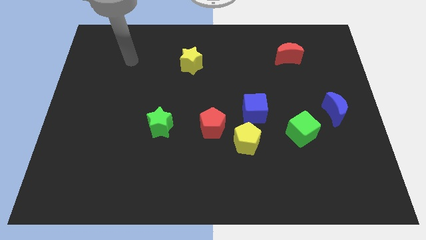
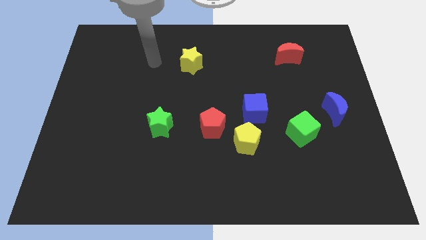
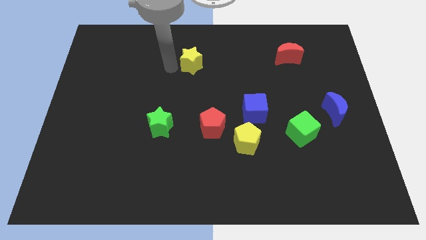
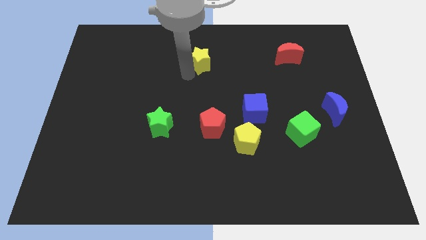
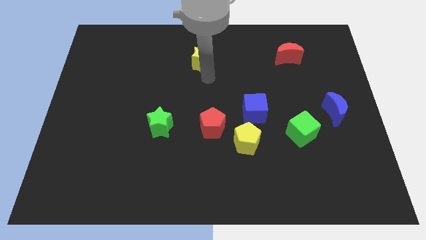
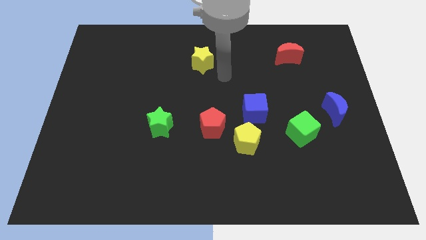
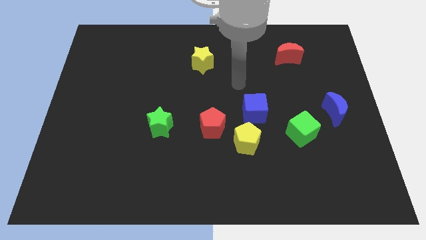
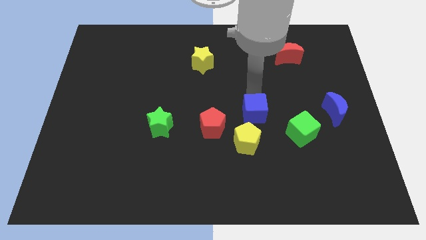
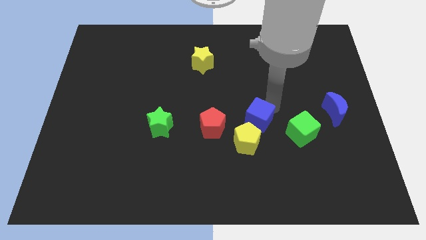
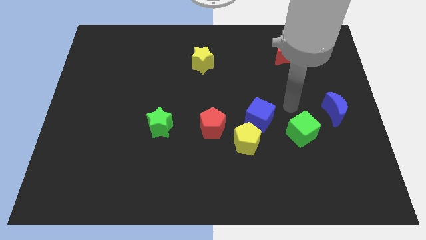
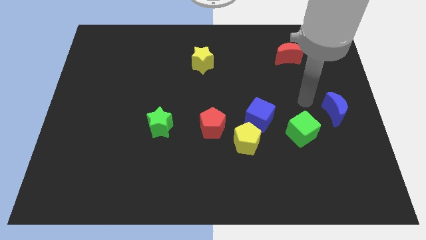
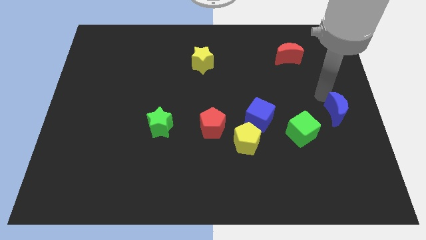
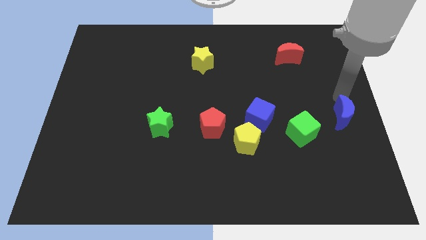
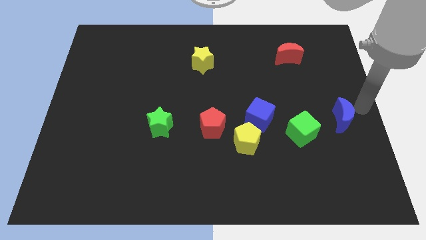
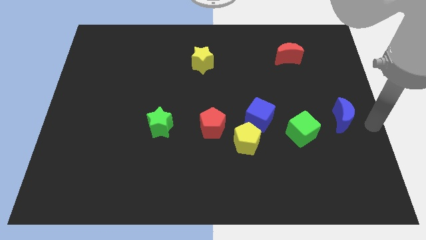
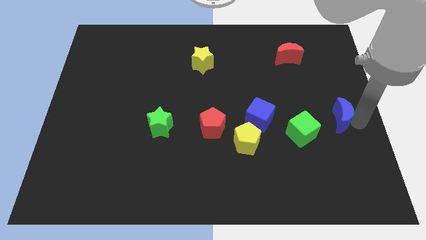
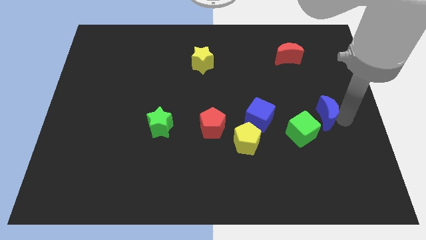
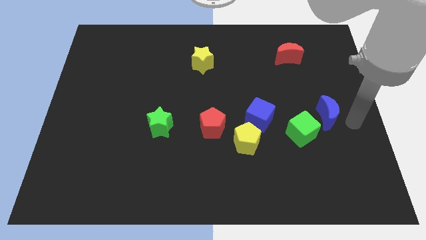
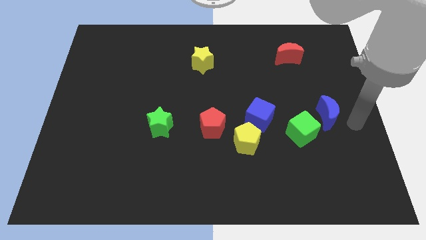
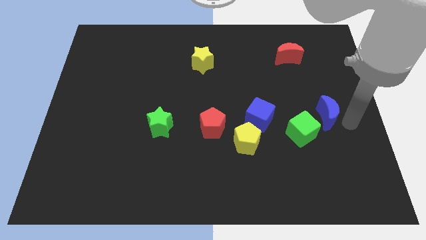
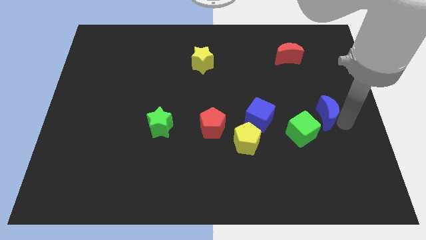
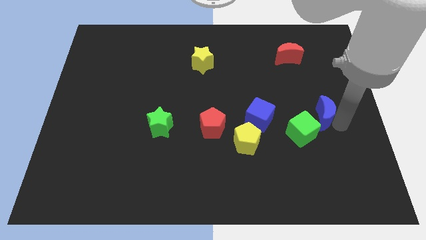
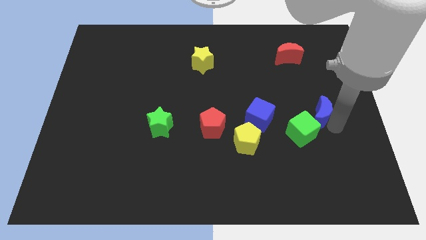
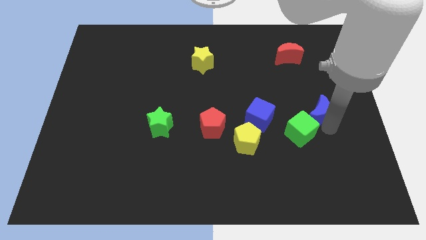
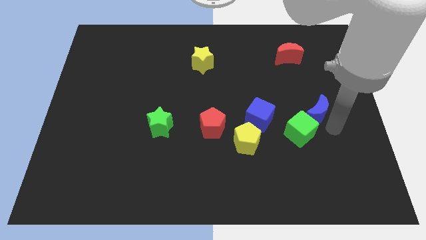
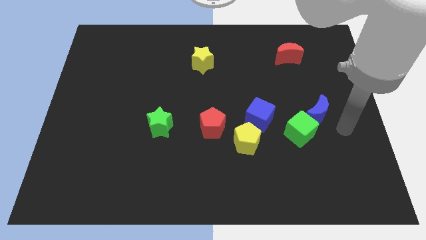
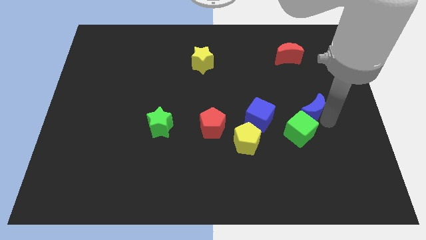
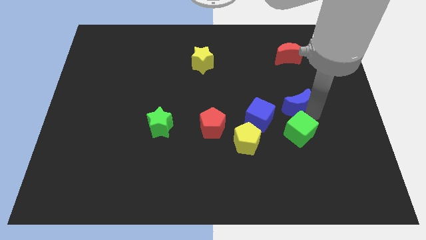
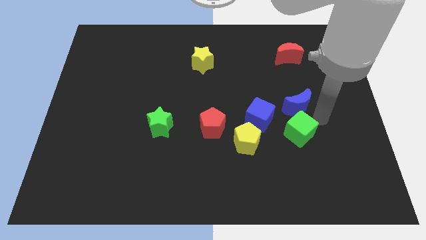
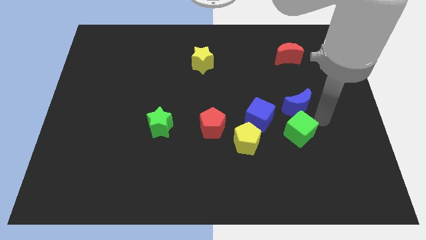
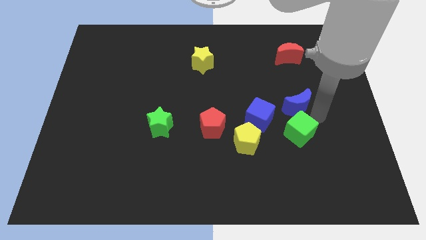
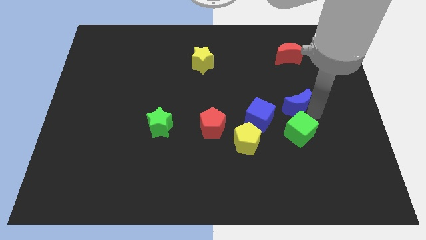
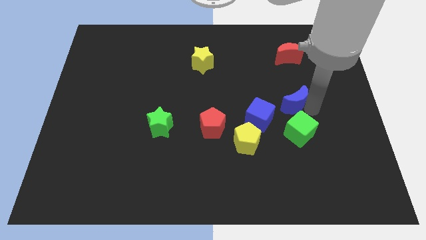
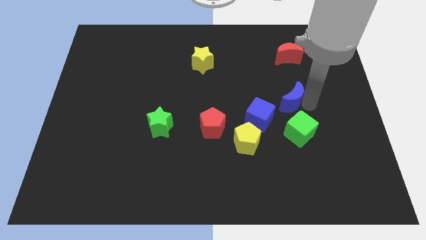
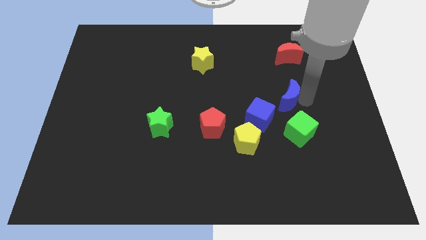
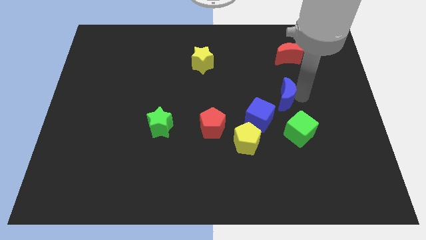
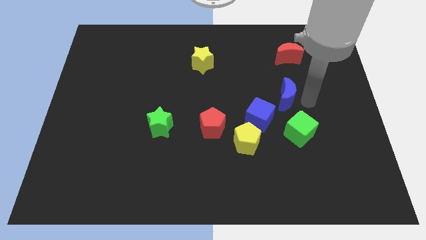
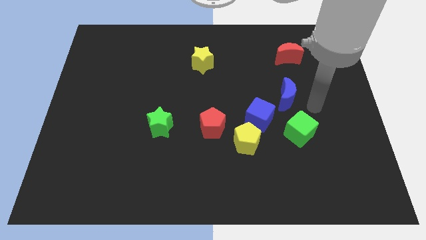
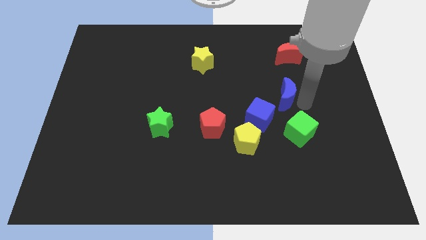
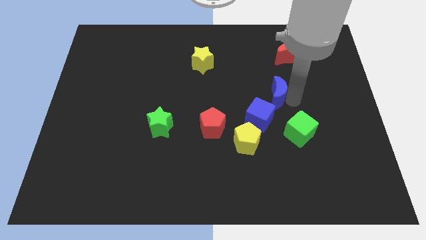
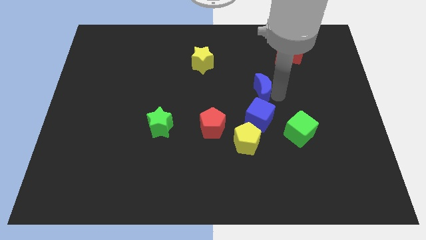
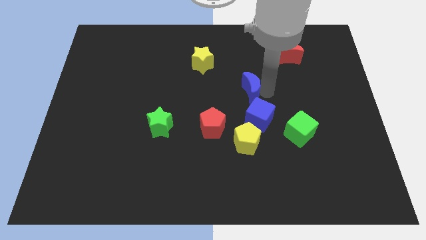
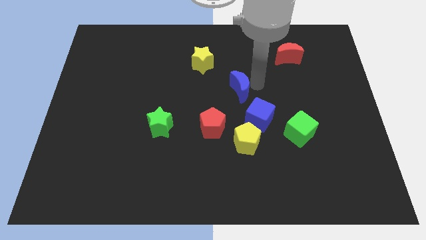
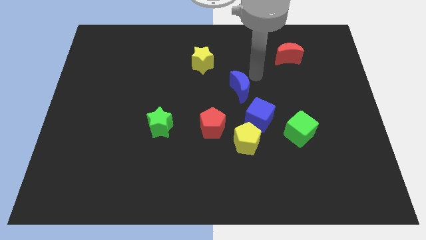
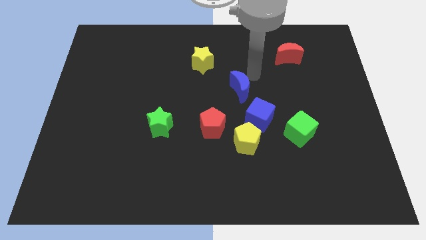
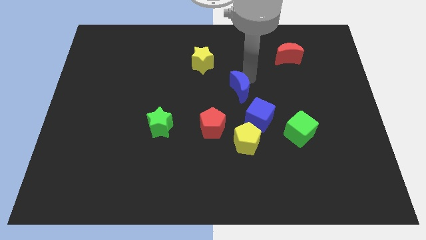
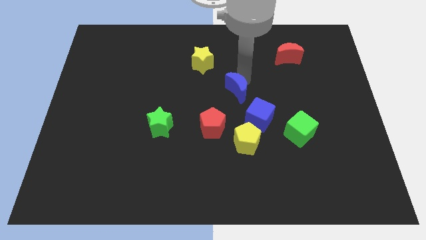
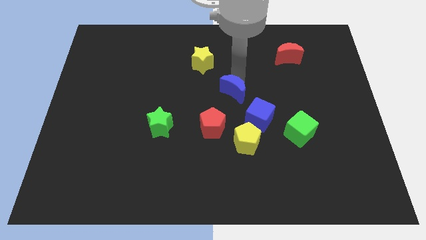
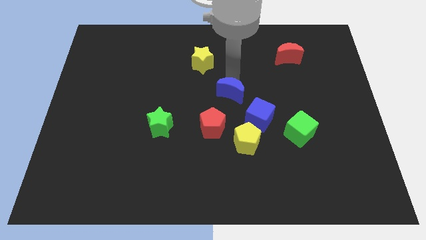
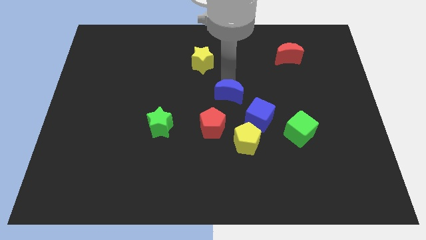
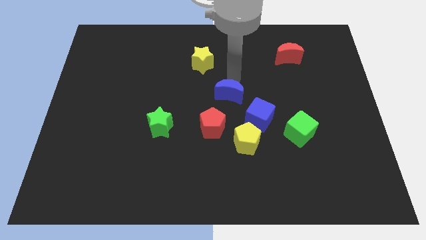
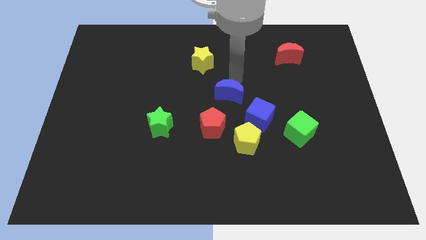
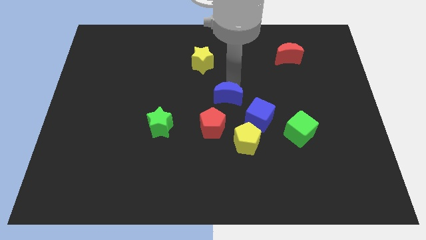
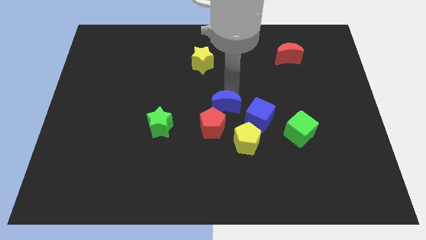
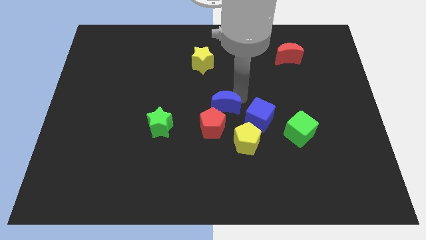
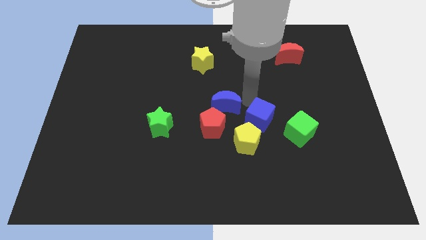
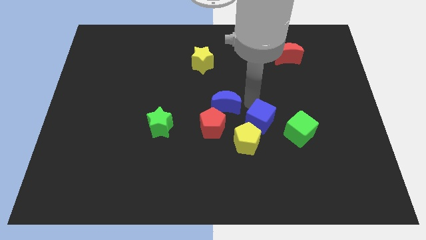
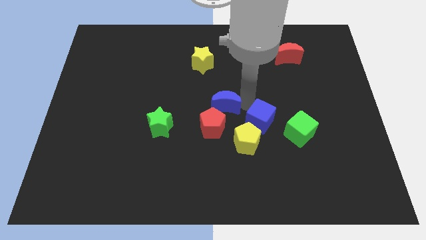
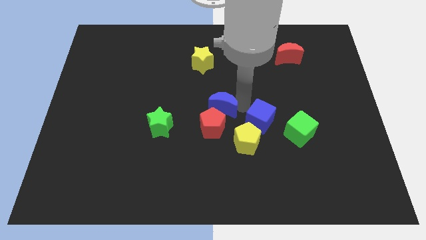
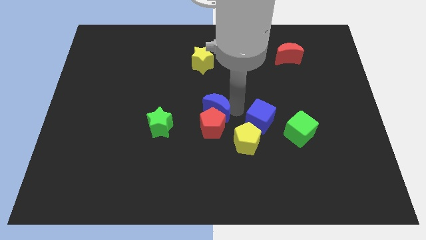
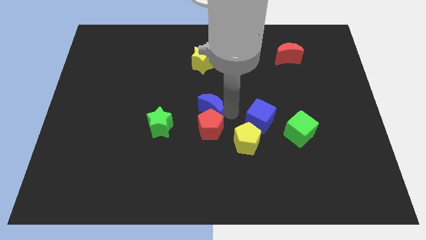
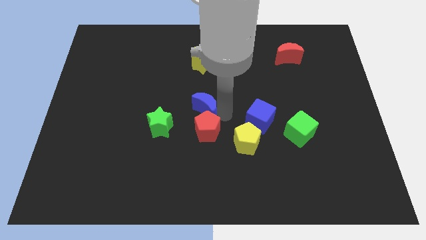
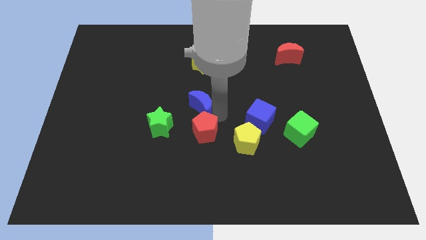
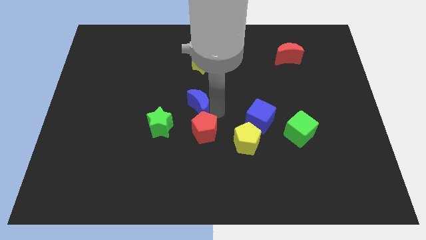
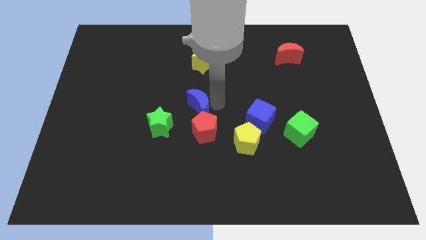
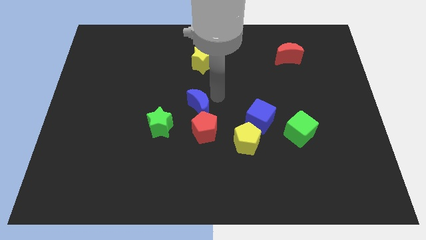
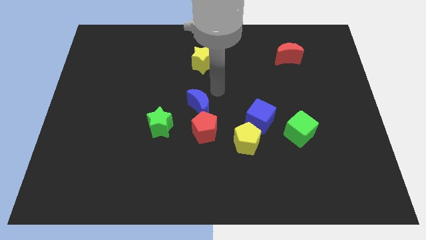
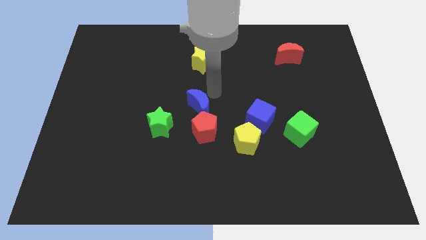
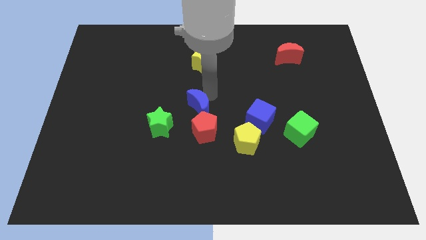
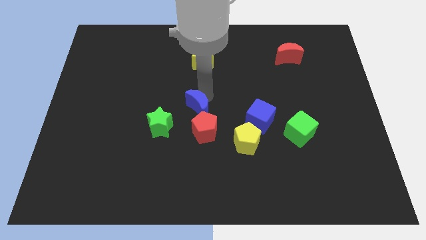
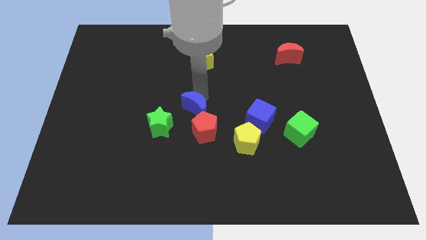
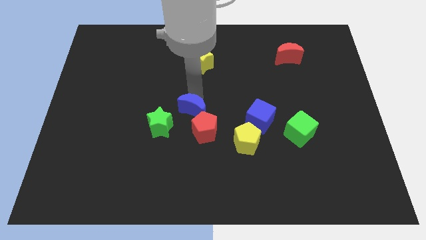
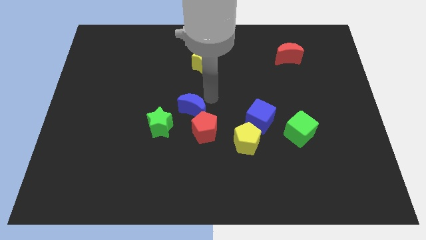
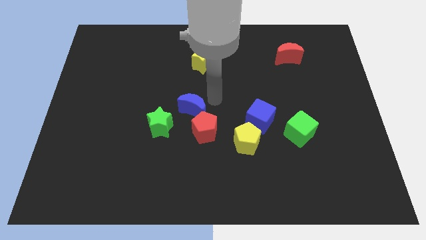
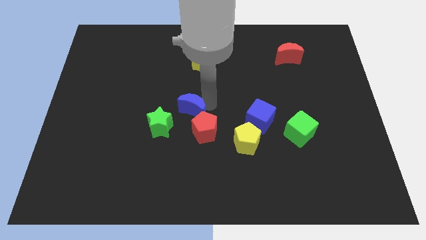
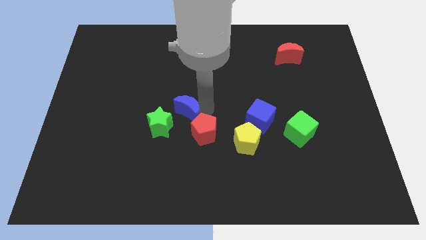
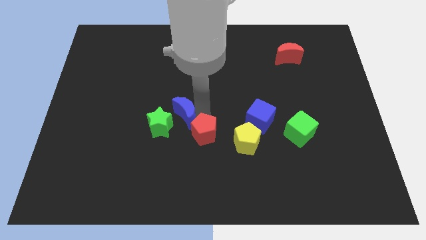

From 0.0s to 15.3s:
slide the blue moon to the green star
